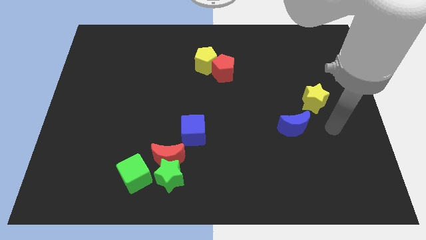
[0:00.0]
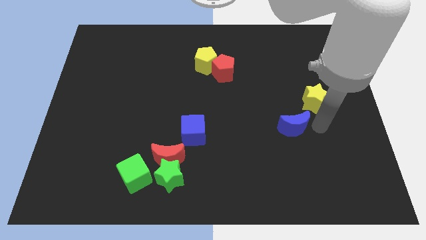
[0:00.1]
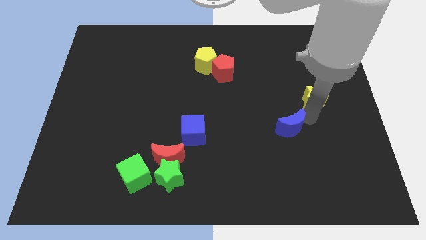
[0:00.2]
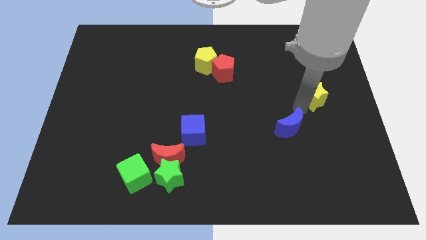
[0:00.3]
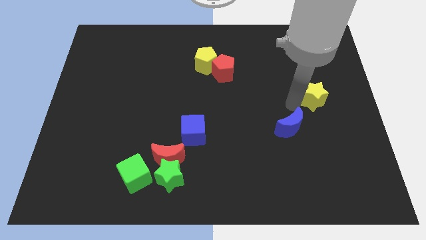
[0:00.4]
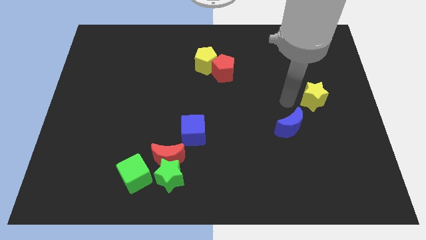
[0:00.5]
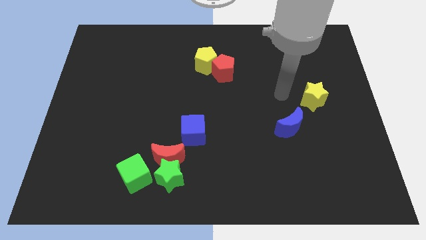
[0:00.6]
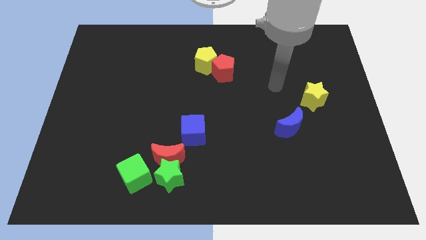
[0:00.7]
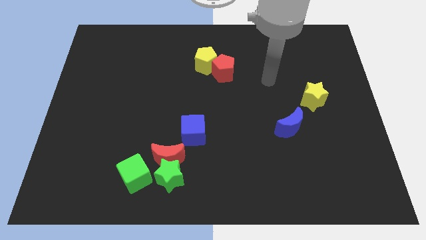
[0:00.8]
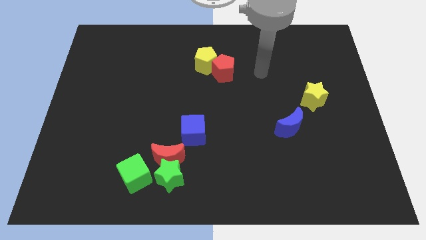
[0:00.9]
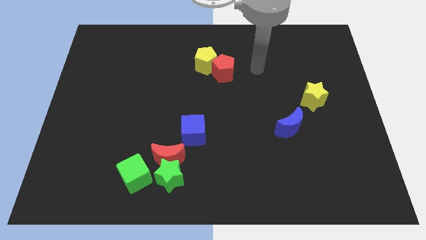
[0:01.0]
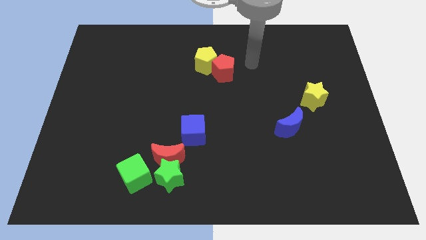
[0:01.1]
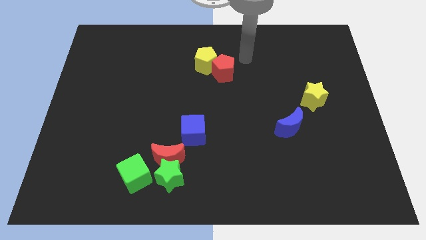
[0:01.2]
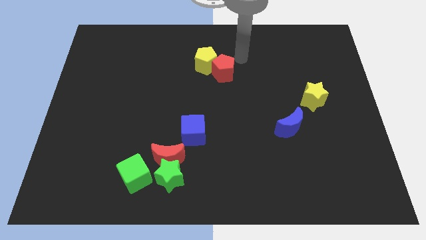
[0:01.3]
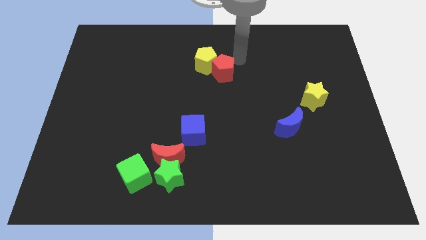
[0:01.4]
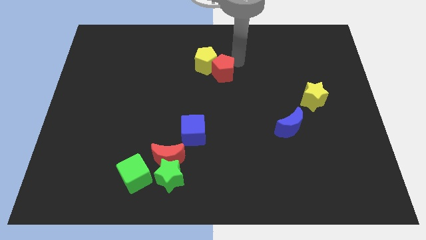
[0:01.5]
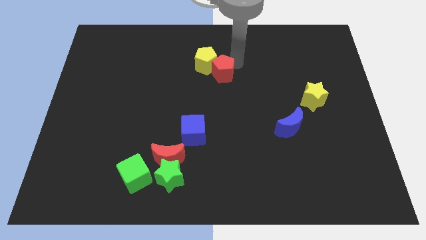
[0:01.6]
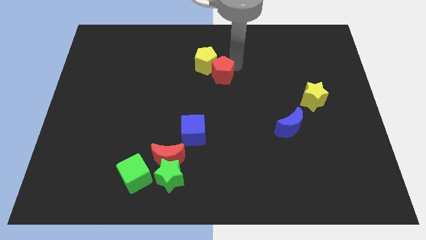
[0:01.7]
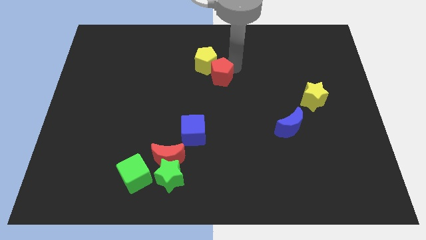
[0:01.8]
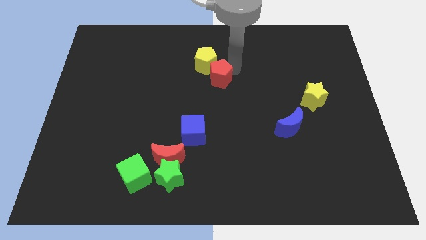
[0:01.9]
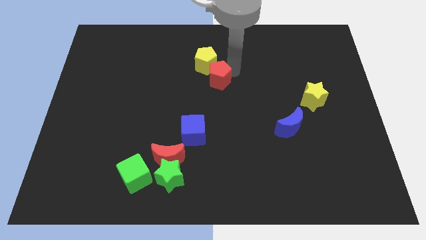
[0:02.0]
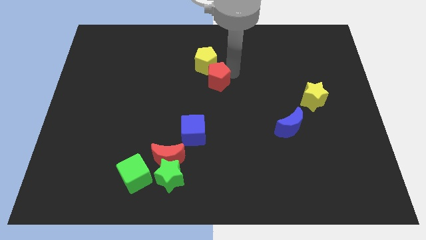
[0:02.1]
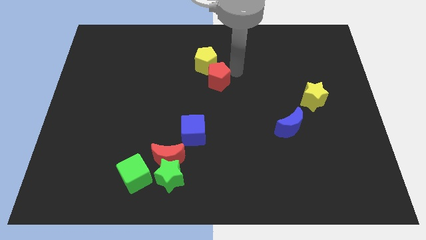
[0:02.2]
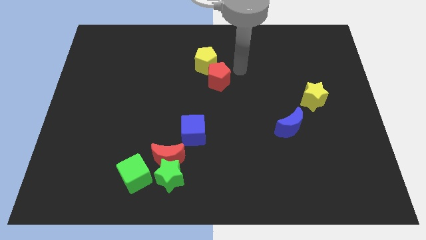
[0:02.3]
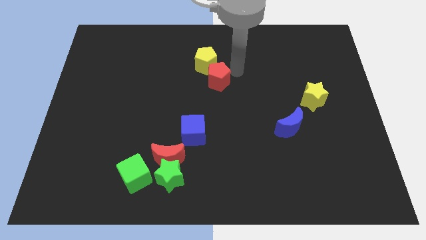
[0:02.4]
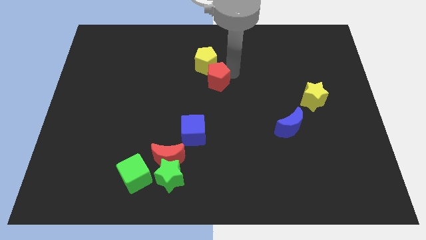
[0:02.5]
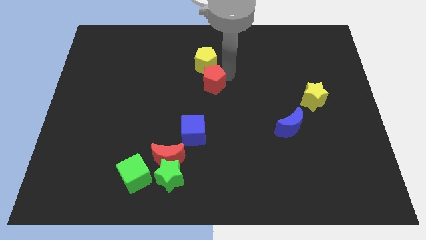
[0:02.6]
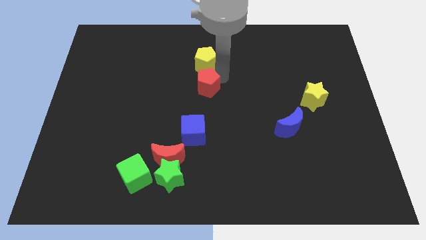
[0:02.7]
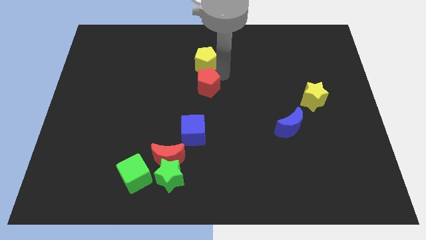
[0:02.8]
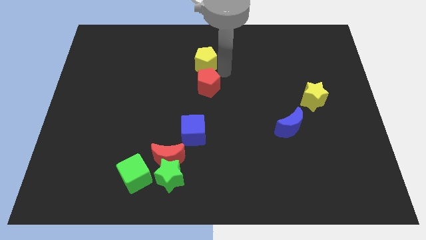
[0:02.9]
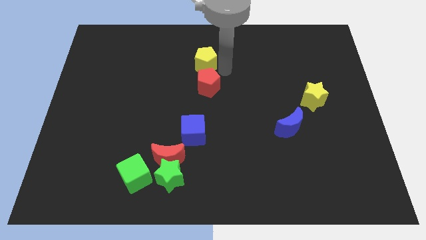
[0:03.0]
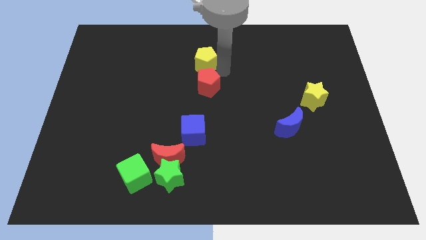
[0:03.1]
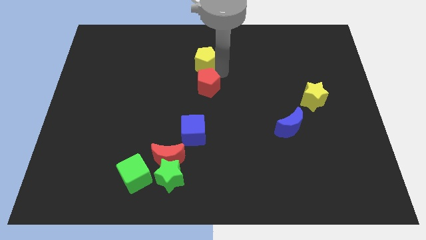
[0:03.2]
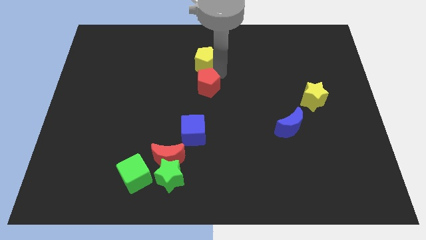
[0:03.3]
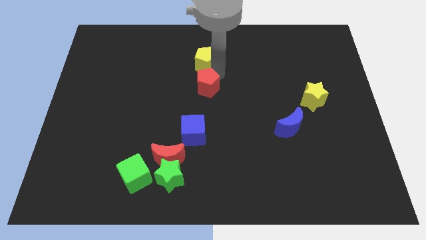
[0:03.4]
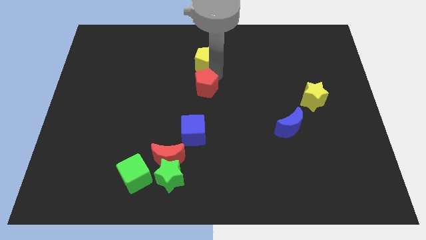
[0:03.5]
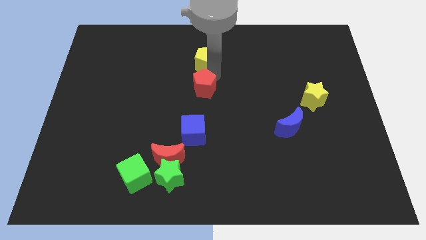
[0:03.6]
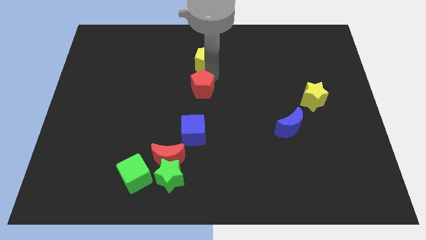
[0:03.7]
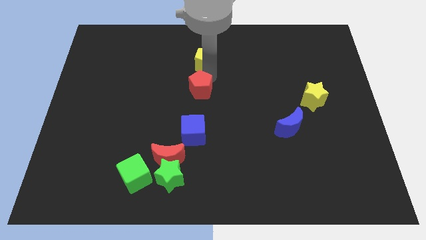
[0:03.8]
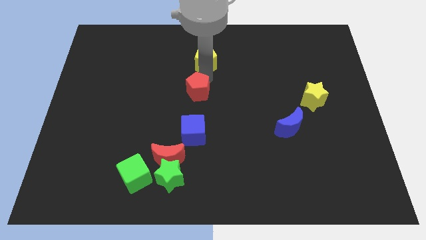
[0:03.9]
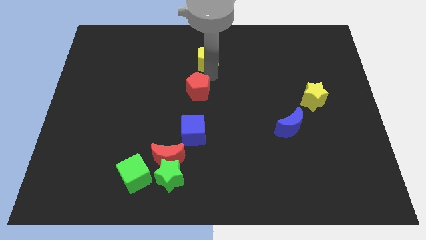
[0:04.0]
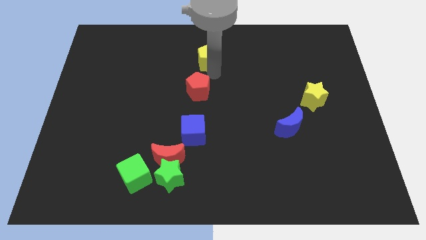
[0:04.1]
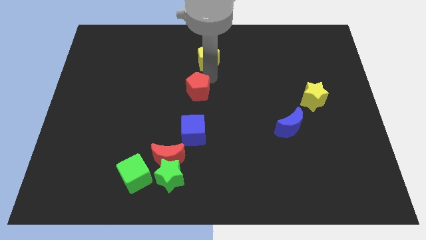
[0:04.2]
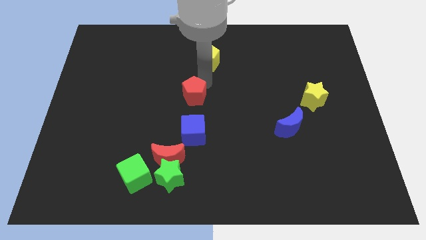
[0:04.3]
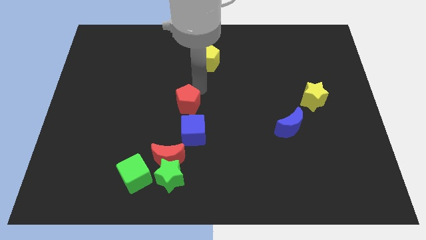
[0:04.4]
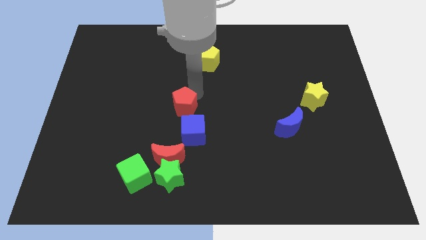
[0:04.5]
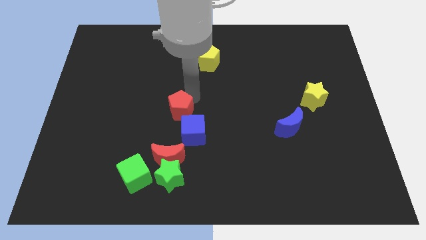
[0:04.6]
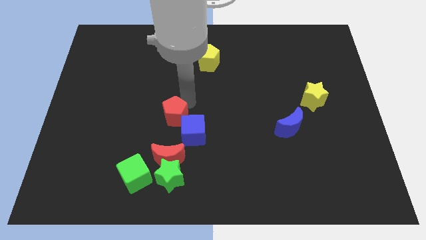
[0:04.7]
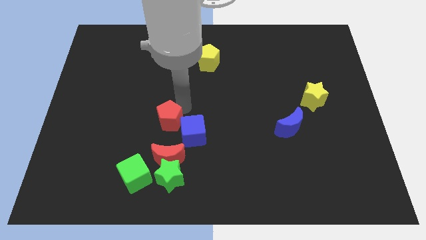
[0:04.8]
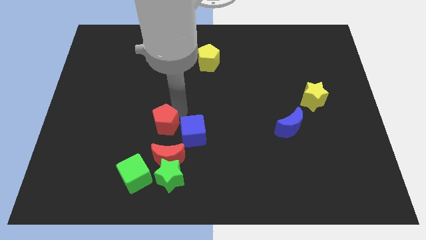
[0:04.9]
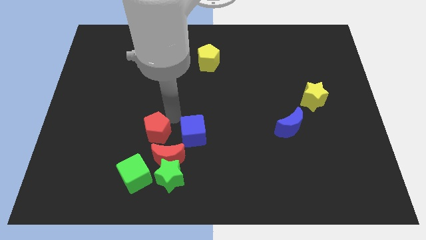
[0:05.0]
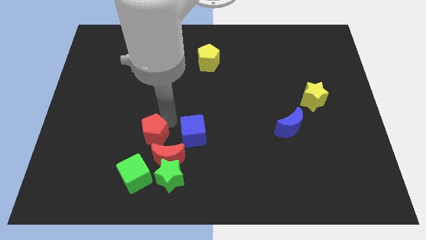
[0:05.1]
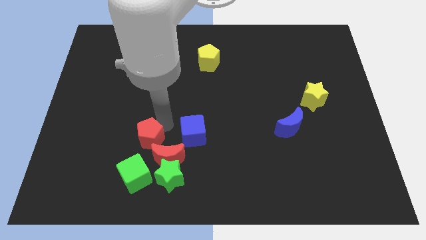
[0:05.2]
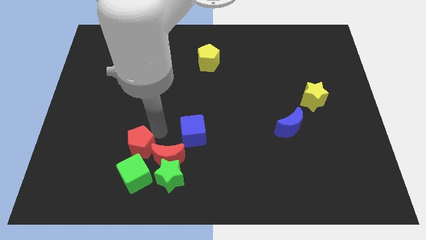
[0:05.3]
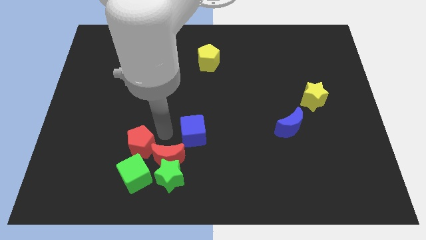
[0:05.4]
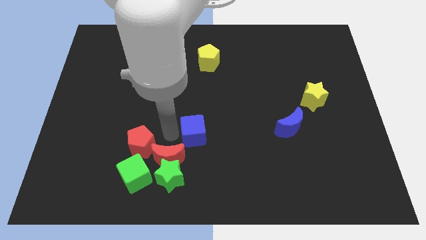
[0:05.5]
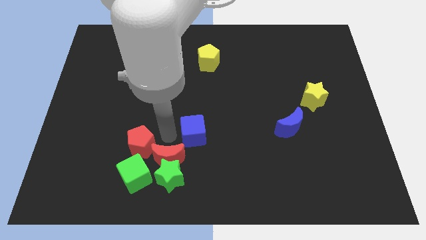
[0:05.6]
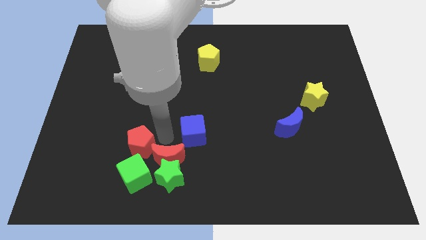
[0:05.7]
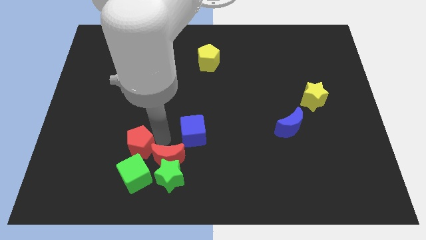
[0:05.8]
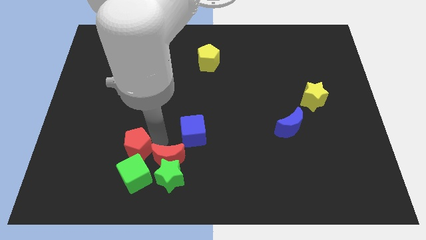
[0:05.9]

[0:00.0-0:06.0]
slide the red pentagon diagonally up and to the left of the green cube

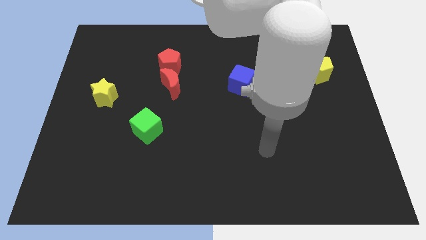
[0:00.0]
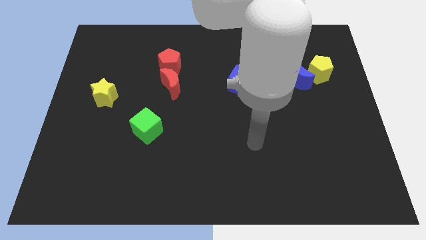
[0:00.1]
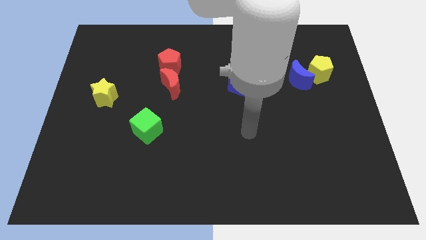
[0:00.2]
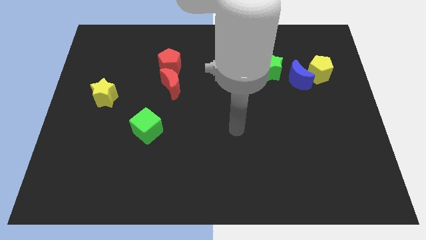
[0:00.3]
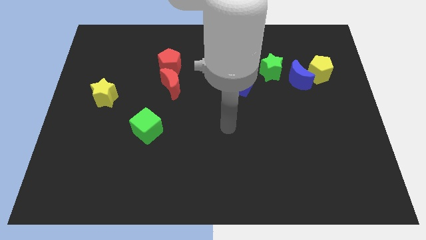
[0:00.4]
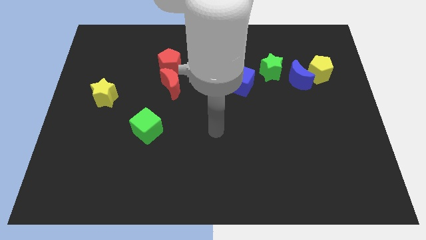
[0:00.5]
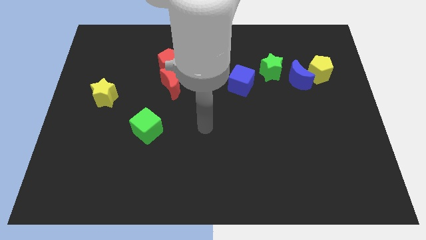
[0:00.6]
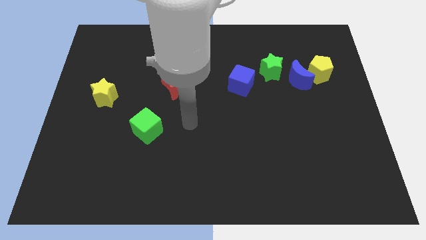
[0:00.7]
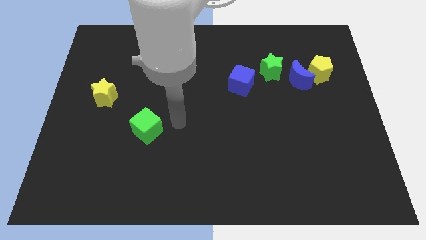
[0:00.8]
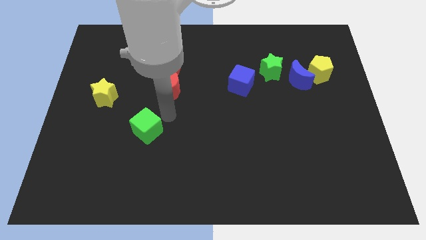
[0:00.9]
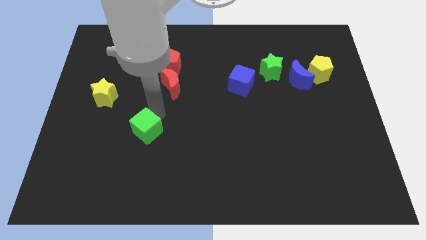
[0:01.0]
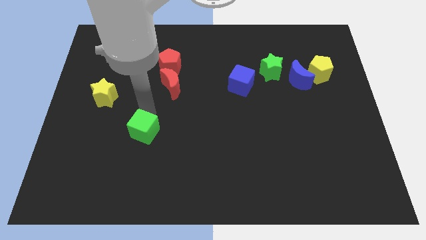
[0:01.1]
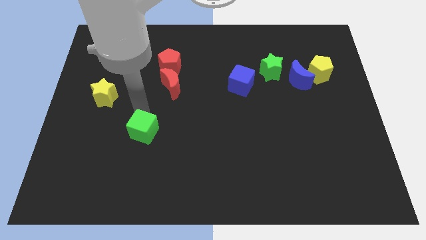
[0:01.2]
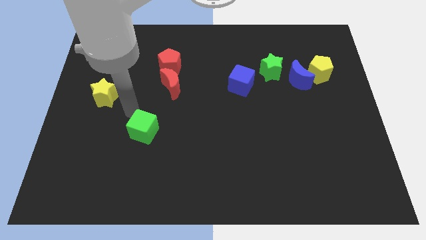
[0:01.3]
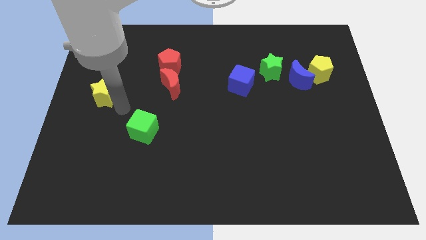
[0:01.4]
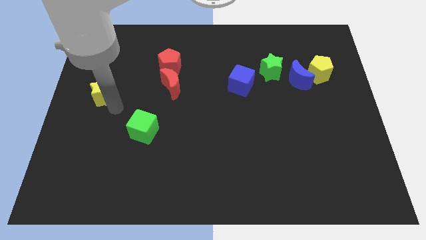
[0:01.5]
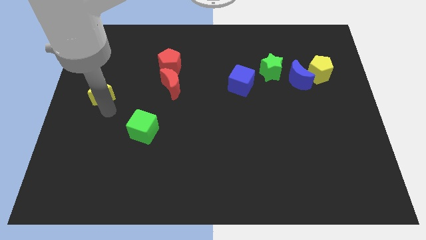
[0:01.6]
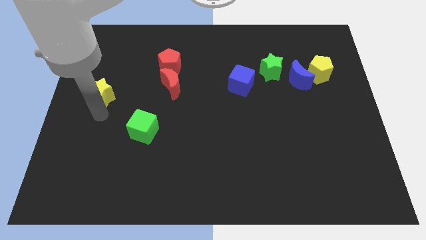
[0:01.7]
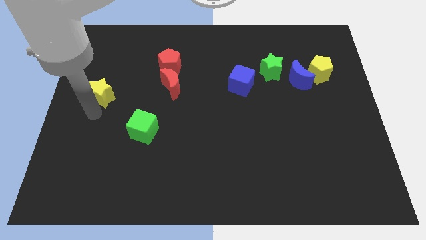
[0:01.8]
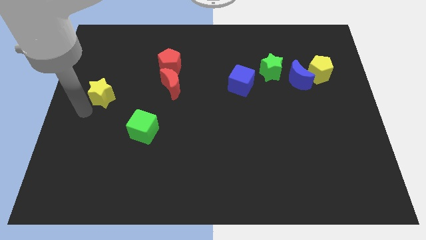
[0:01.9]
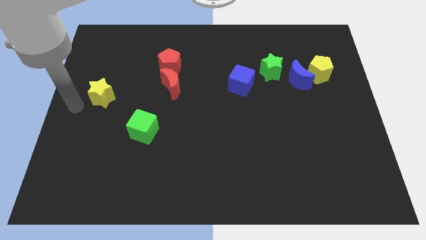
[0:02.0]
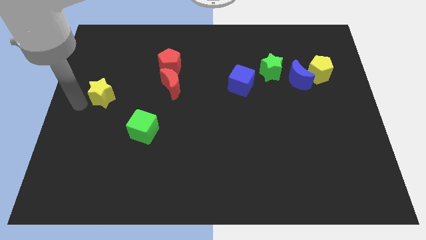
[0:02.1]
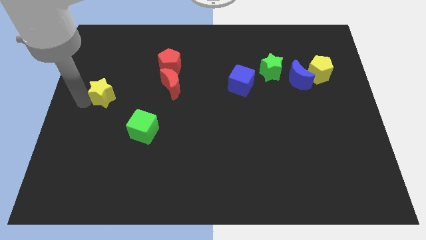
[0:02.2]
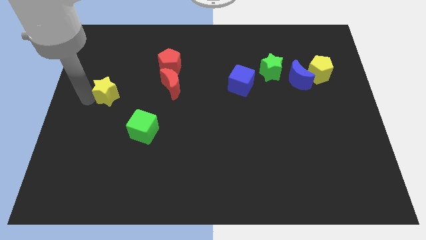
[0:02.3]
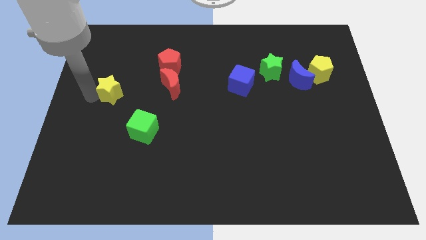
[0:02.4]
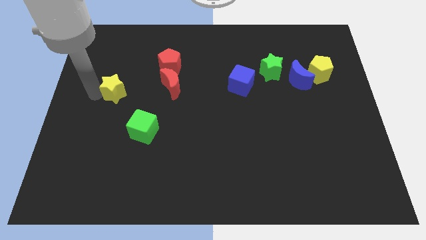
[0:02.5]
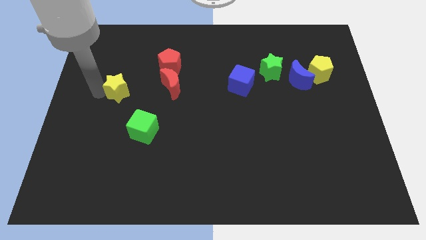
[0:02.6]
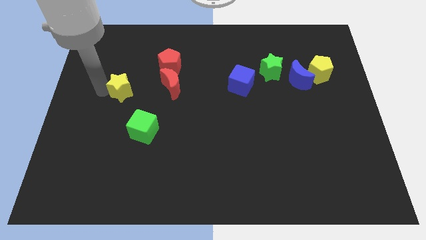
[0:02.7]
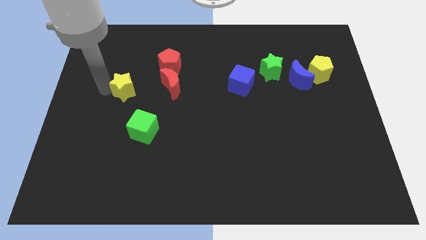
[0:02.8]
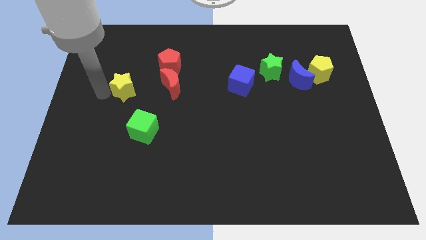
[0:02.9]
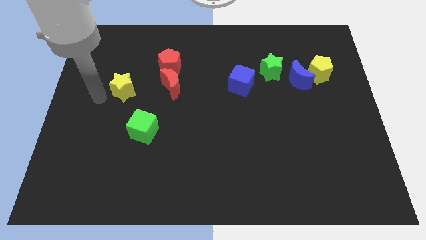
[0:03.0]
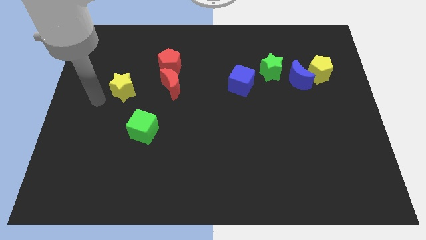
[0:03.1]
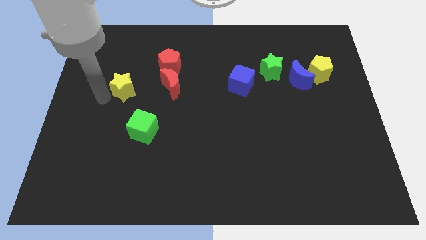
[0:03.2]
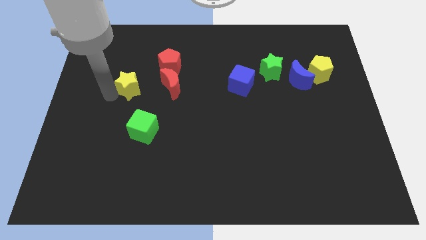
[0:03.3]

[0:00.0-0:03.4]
push the yellow star to the bottom left side of the red pentagon
